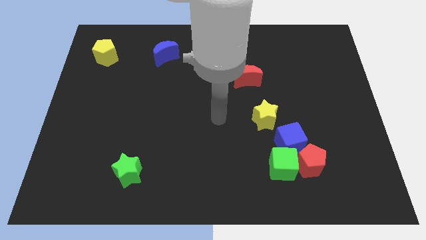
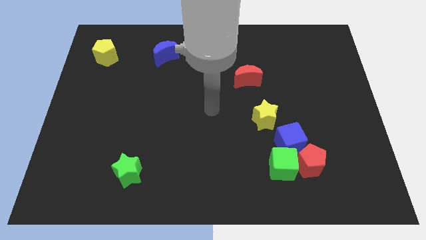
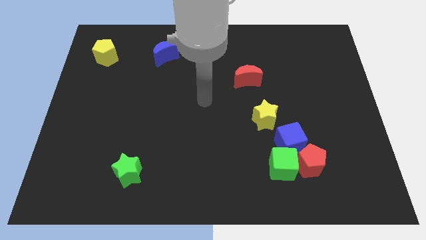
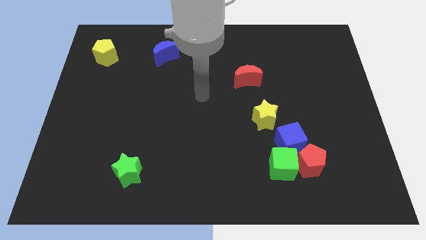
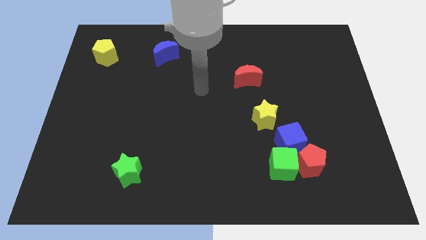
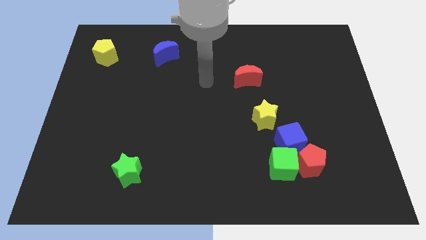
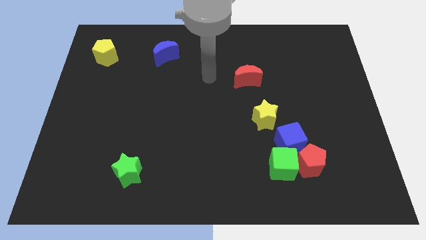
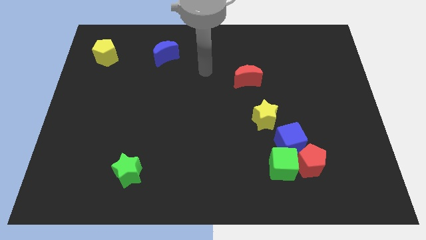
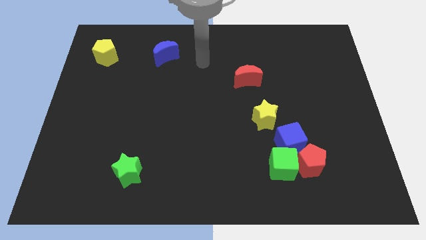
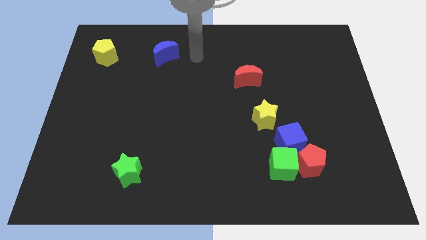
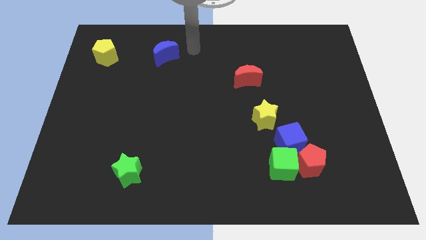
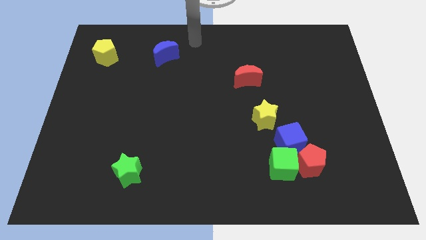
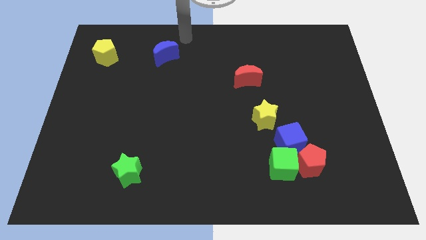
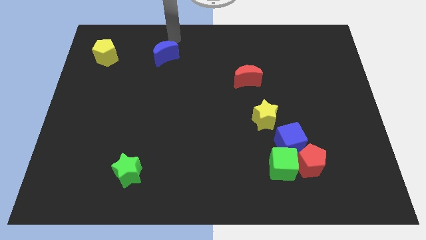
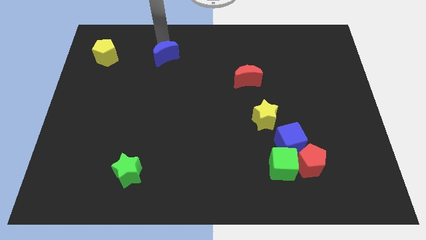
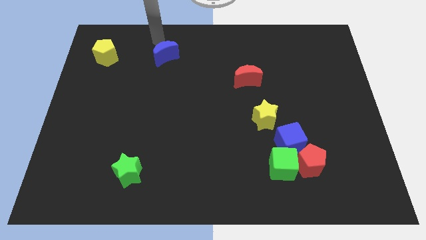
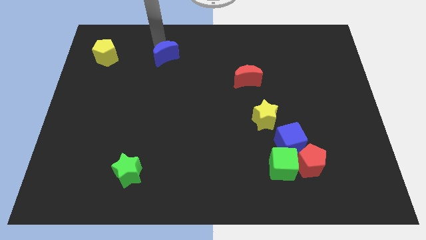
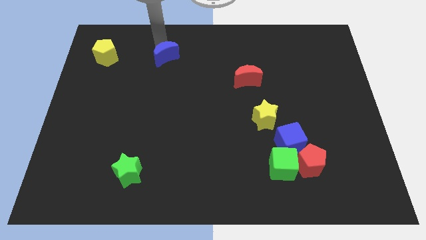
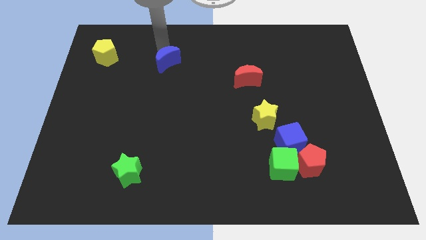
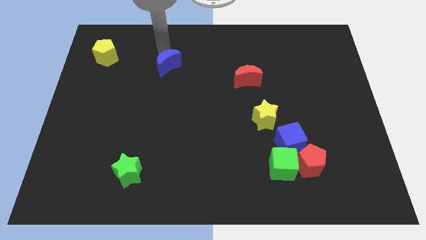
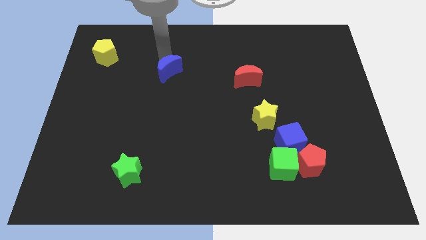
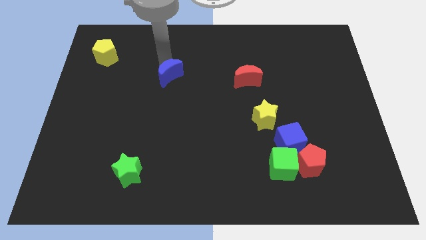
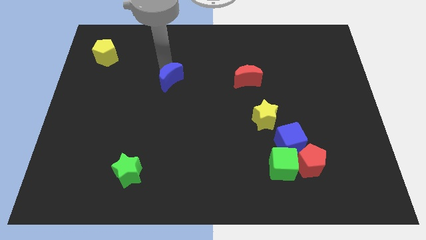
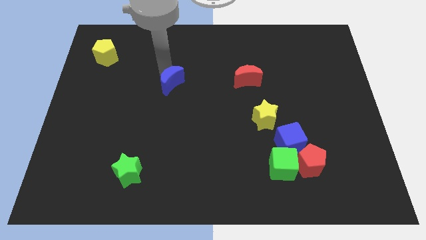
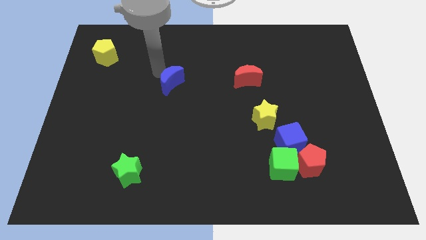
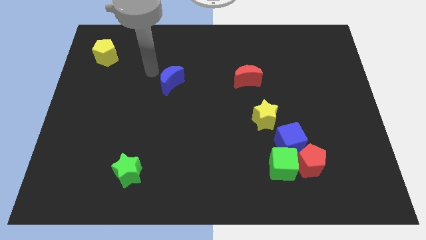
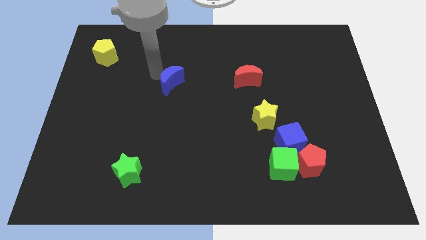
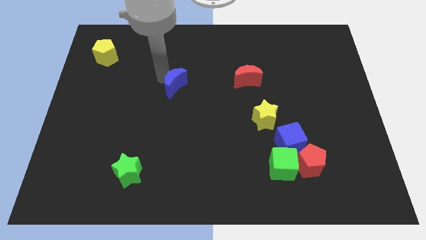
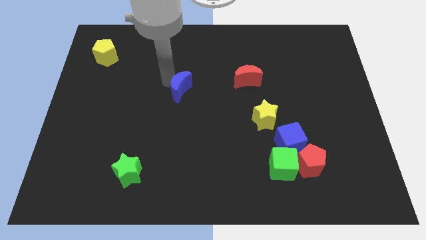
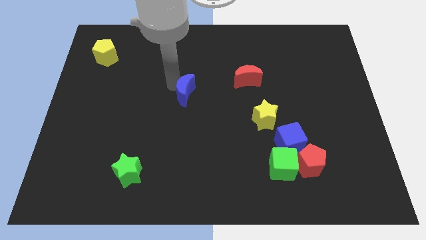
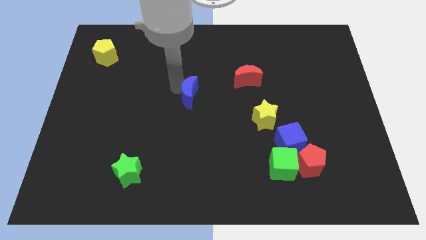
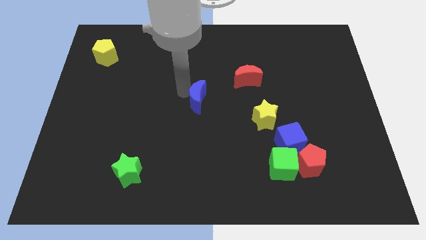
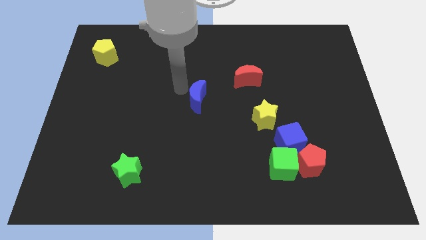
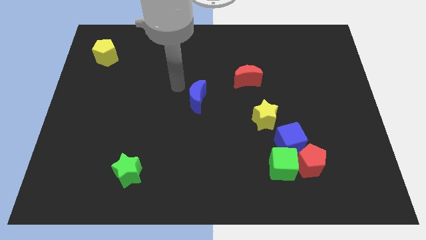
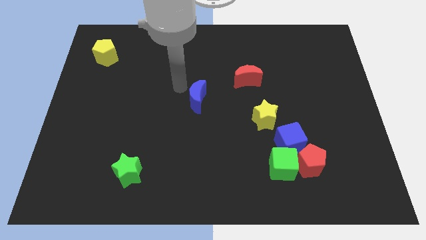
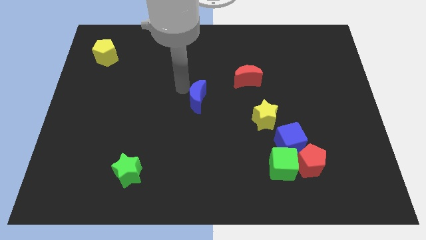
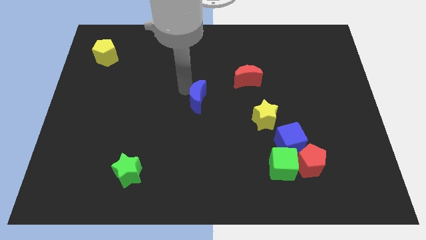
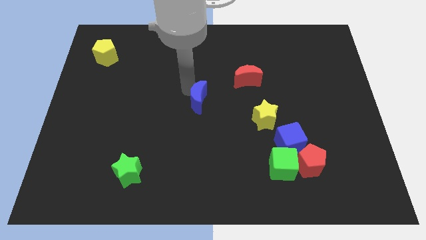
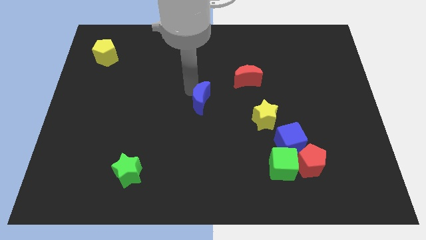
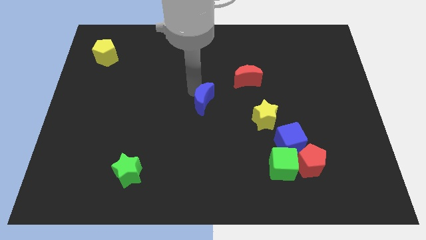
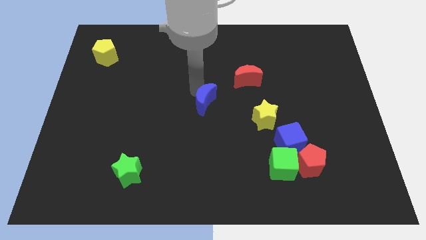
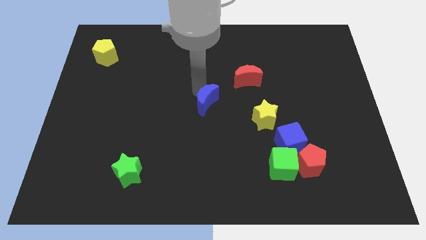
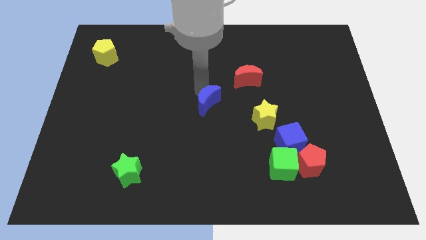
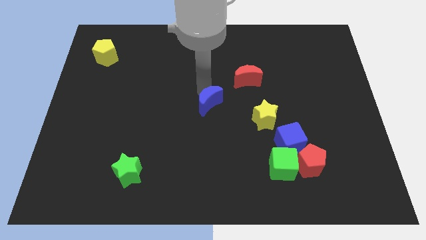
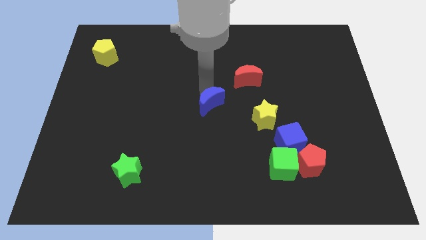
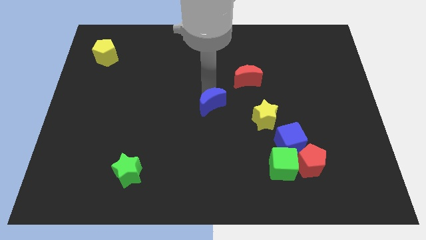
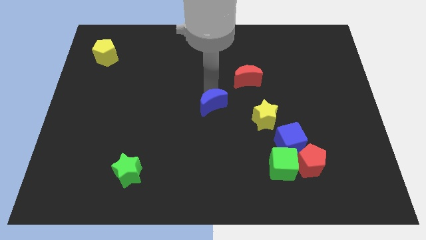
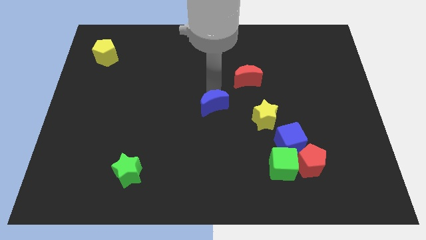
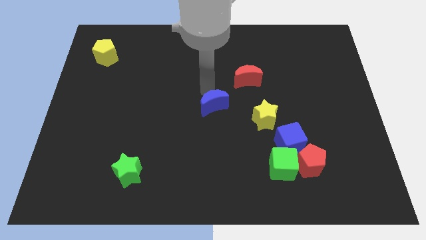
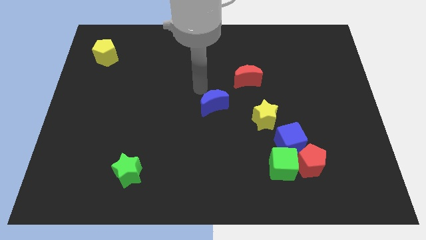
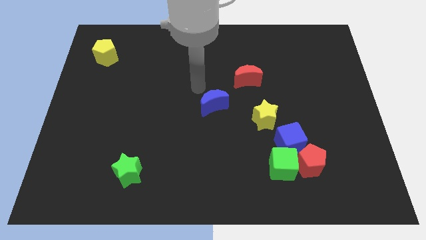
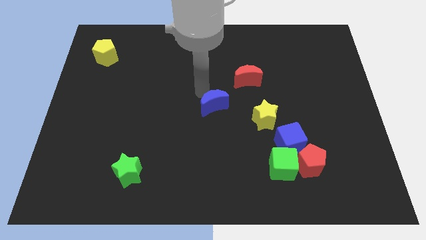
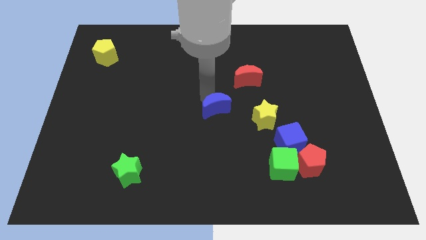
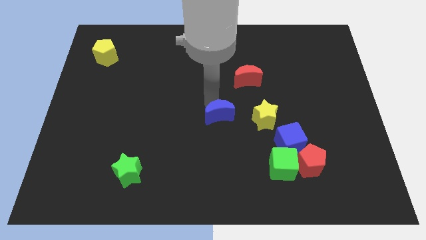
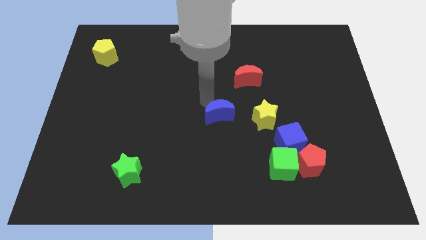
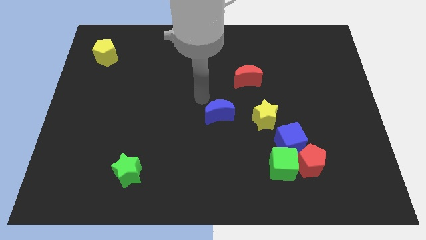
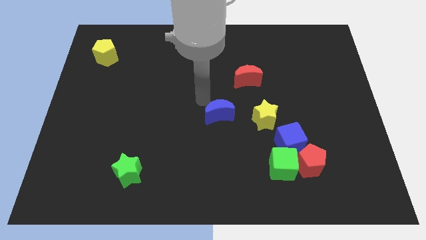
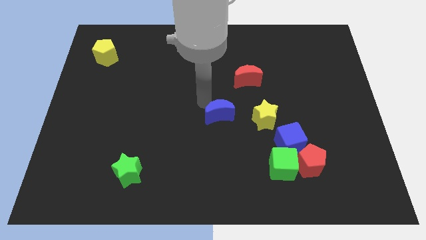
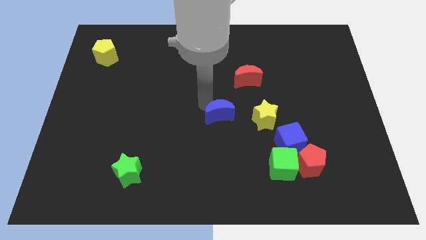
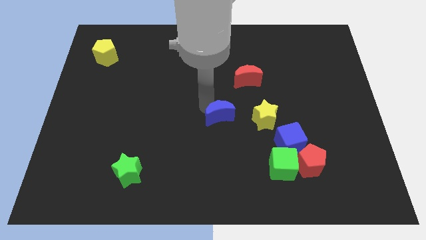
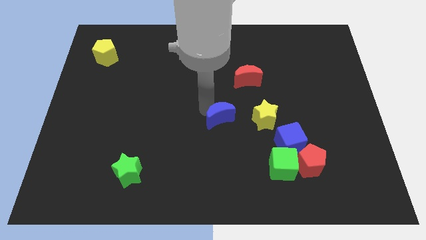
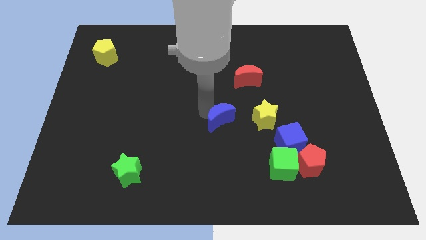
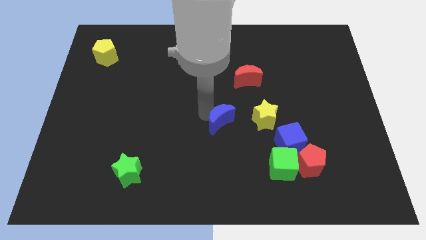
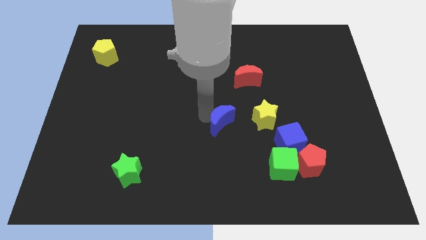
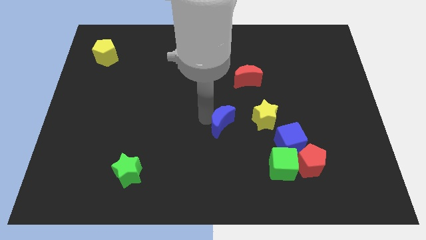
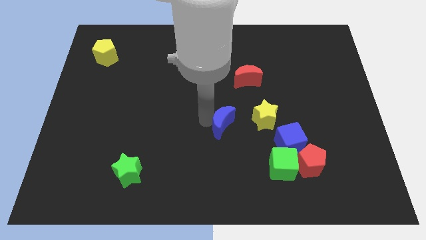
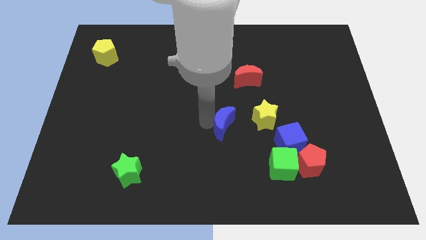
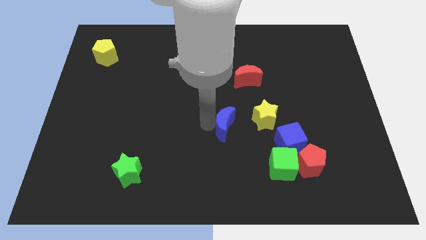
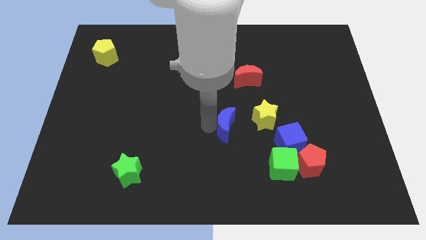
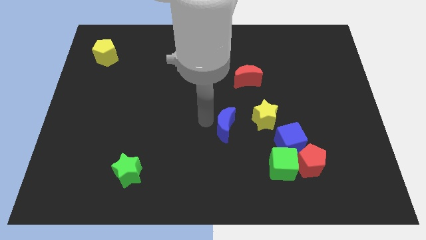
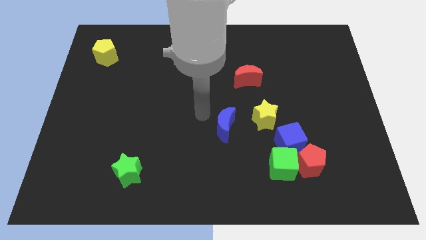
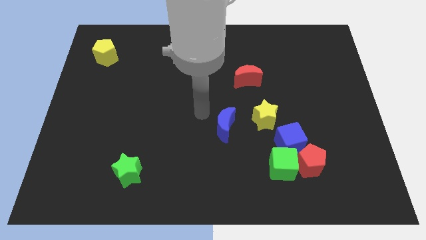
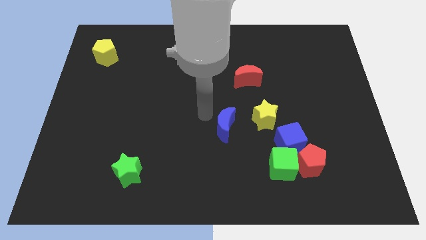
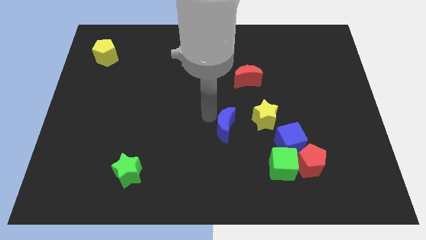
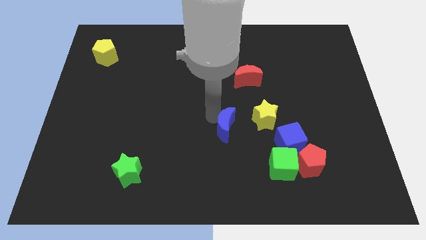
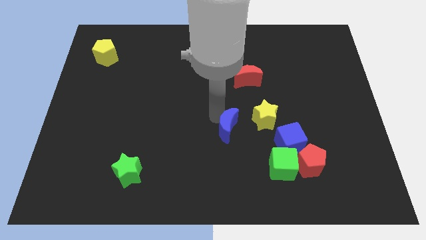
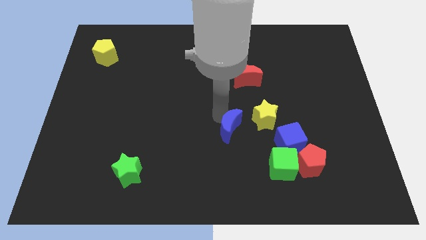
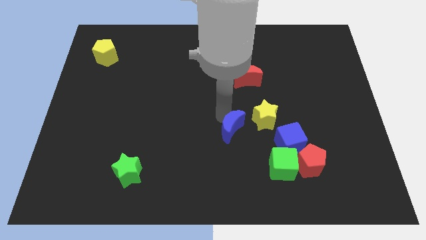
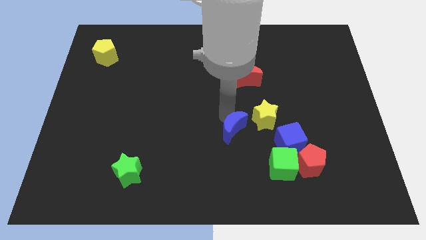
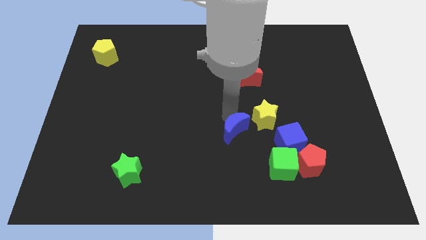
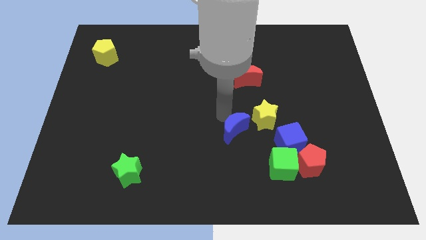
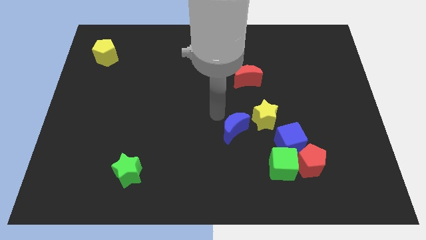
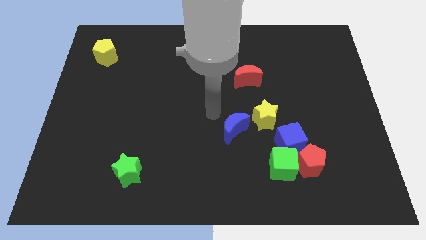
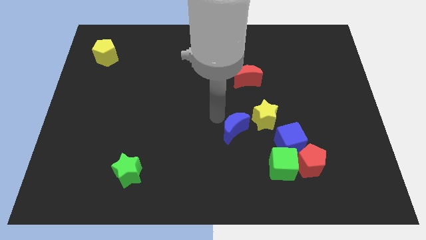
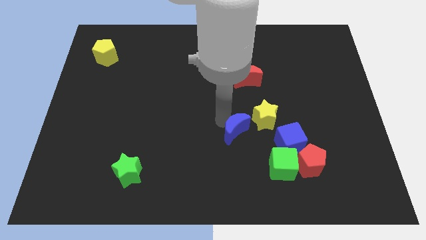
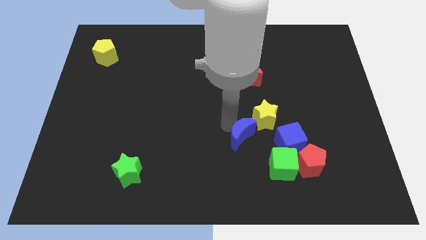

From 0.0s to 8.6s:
move the blue moon to the top left of the green cube
